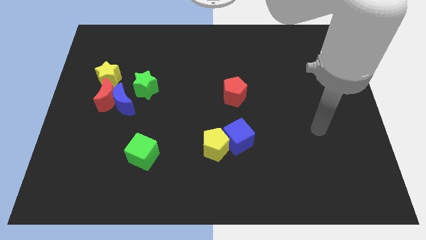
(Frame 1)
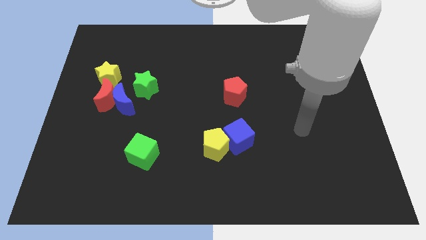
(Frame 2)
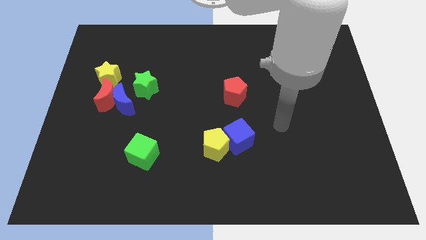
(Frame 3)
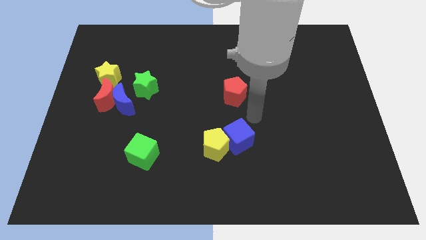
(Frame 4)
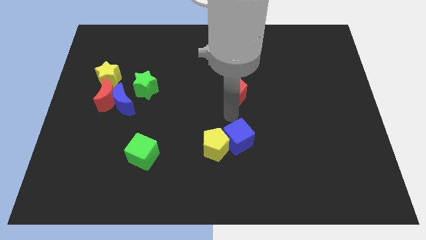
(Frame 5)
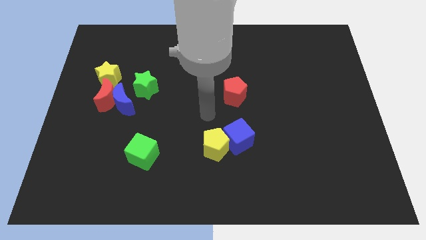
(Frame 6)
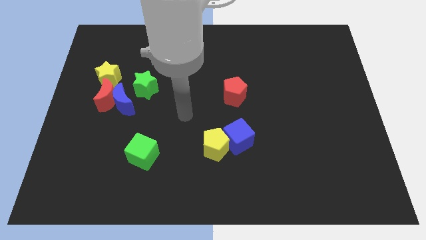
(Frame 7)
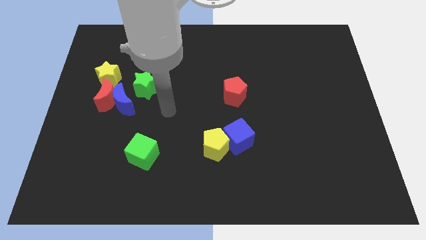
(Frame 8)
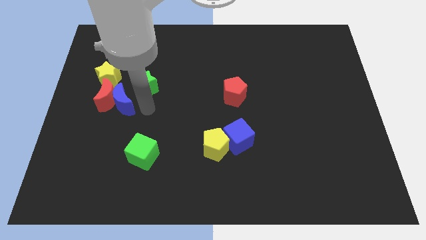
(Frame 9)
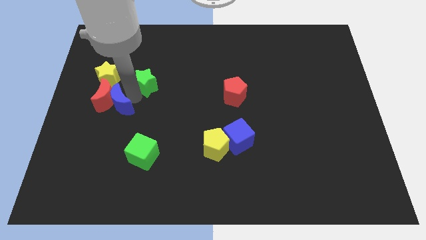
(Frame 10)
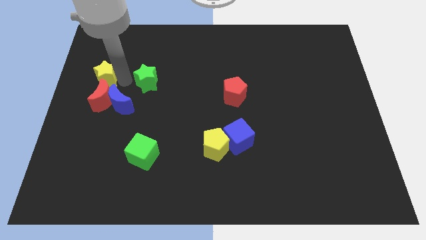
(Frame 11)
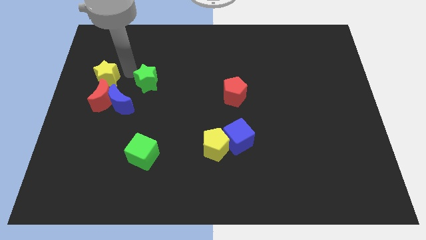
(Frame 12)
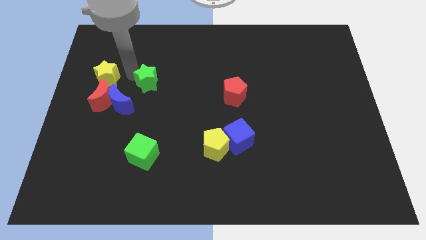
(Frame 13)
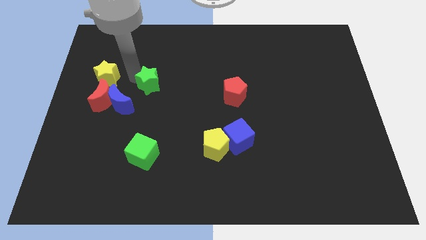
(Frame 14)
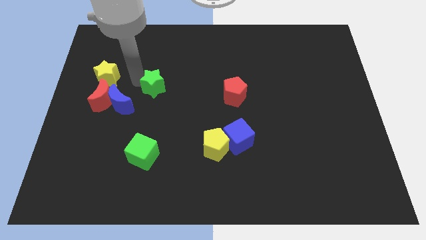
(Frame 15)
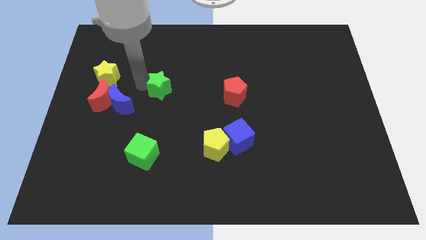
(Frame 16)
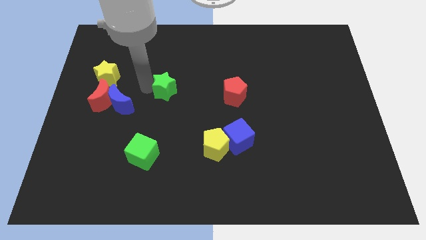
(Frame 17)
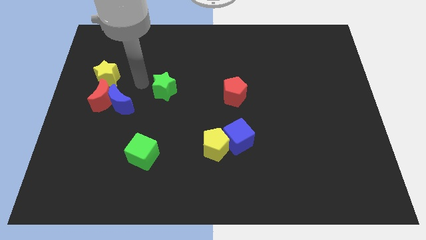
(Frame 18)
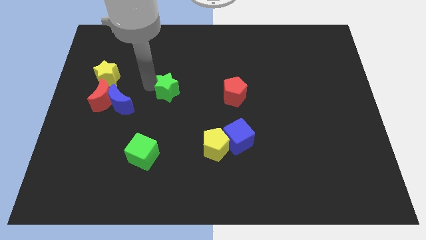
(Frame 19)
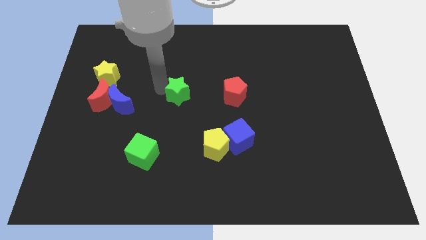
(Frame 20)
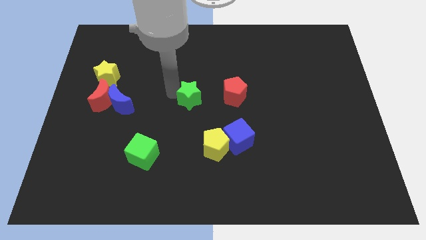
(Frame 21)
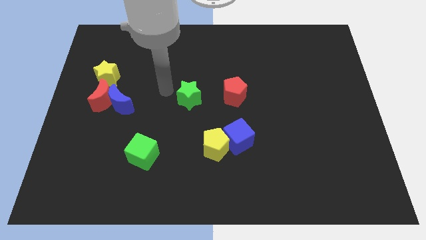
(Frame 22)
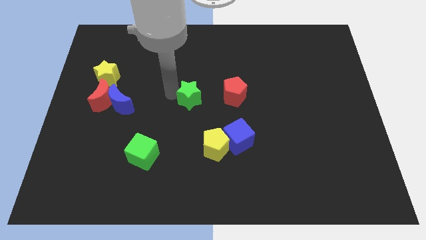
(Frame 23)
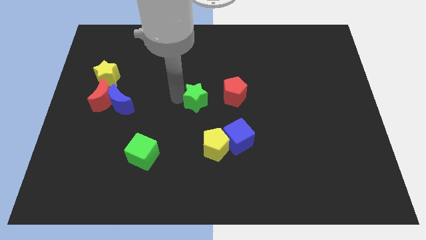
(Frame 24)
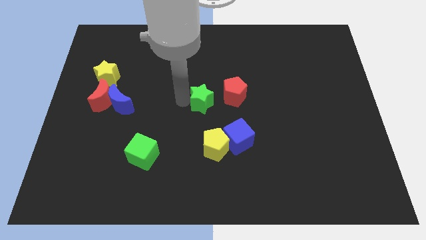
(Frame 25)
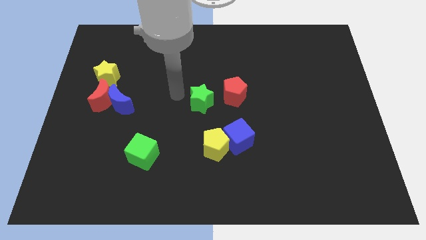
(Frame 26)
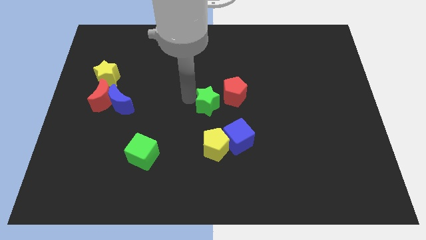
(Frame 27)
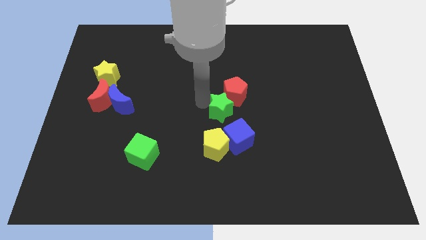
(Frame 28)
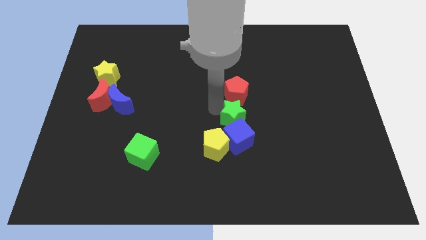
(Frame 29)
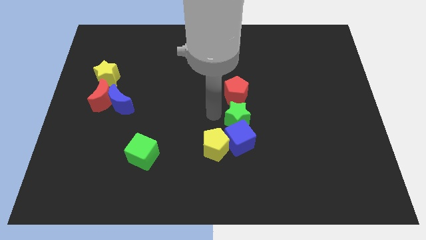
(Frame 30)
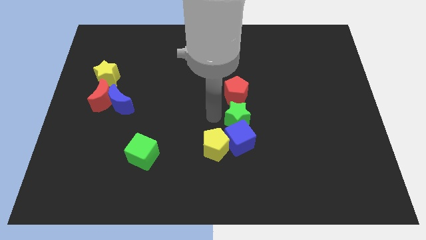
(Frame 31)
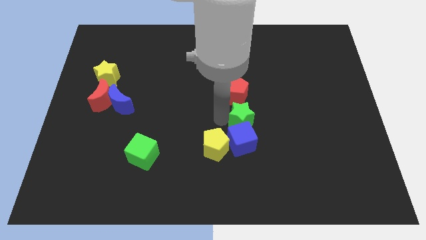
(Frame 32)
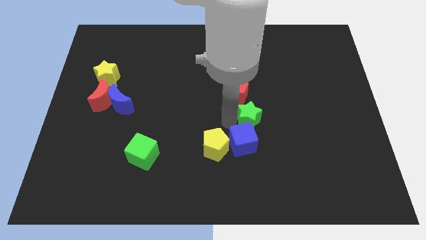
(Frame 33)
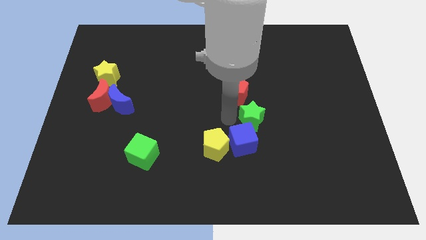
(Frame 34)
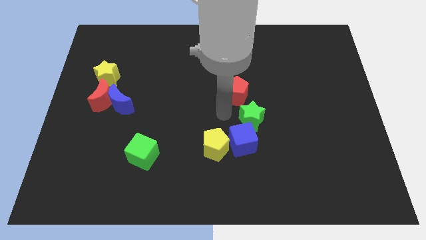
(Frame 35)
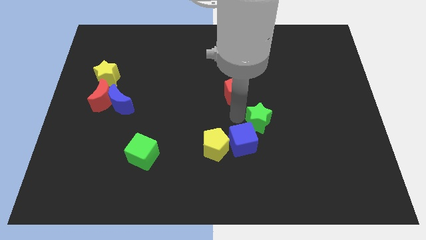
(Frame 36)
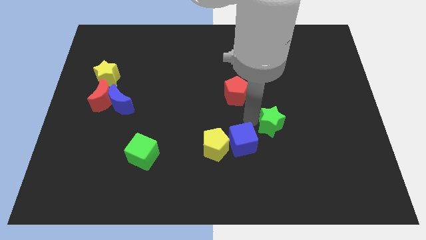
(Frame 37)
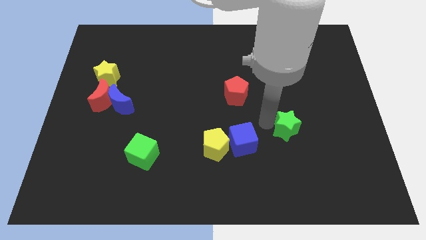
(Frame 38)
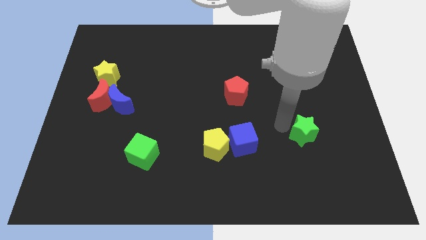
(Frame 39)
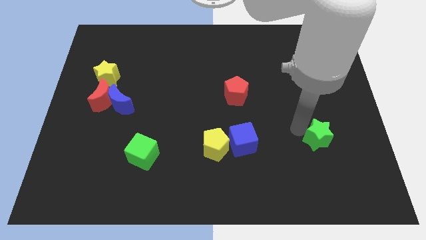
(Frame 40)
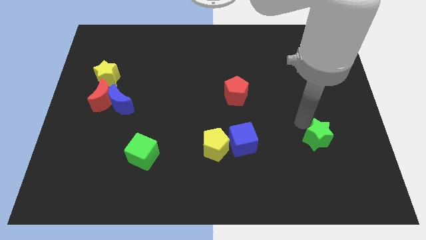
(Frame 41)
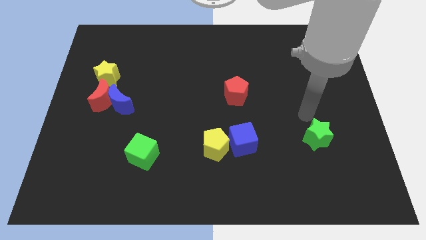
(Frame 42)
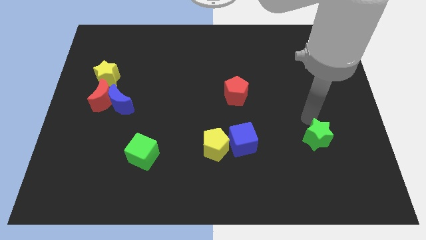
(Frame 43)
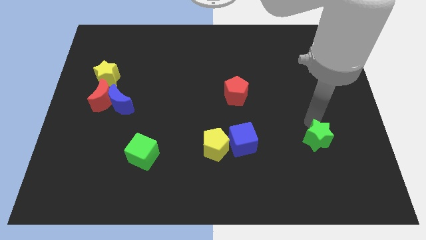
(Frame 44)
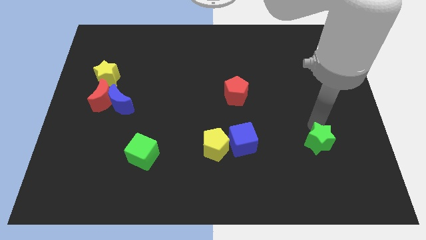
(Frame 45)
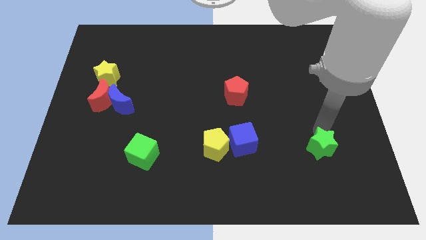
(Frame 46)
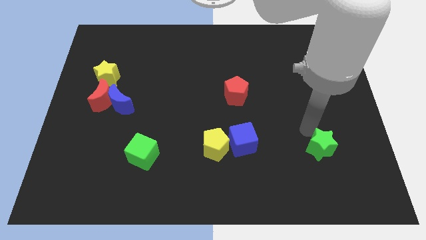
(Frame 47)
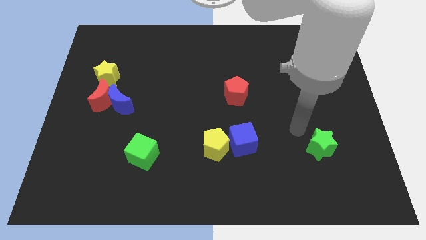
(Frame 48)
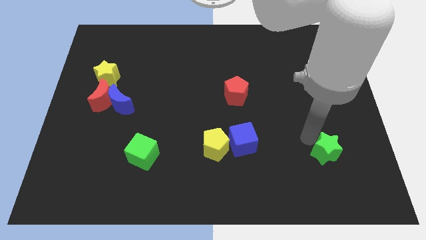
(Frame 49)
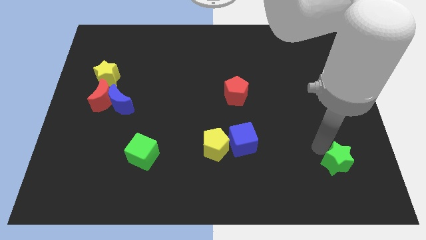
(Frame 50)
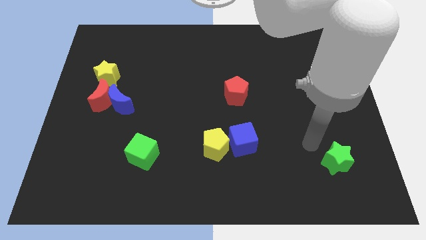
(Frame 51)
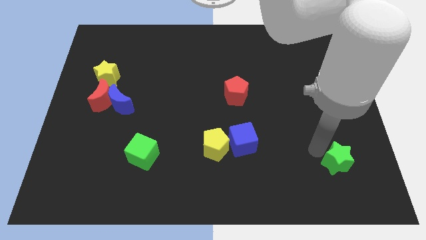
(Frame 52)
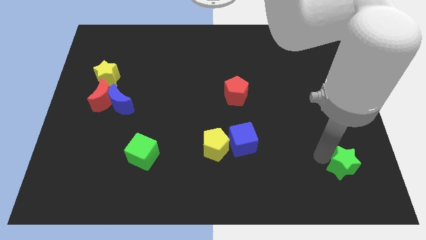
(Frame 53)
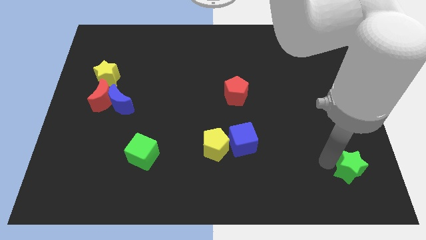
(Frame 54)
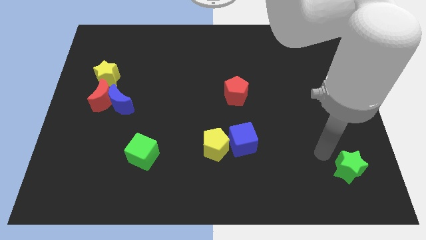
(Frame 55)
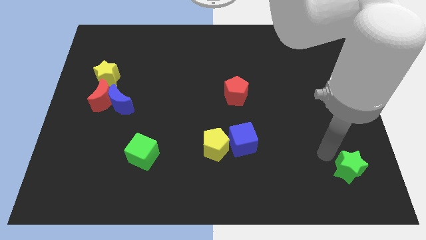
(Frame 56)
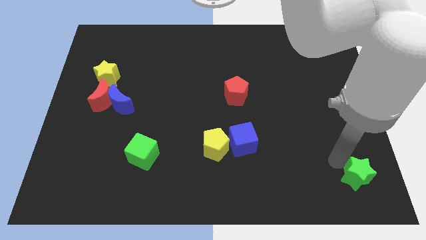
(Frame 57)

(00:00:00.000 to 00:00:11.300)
push the green star to the bottom right
